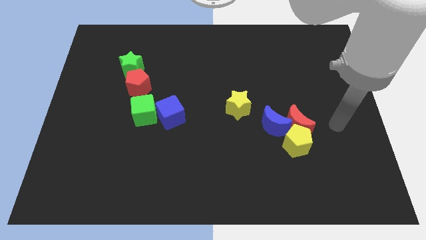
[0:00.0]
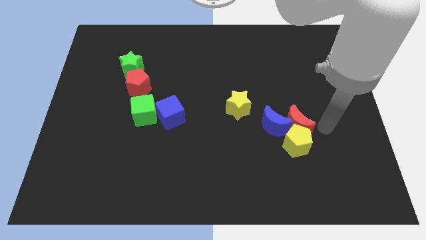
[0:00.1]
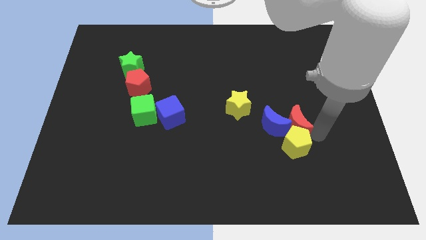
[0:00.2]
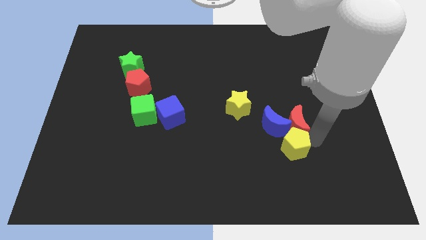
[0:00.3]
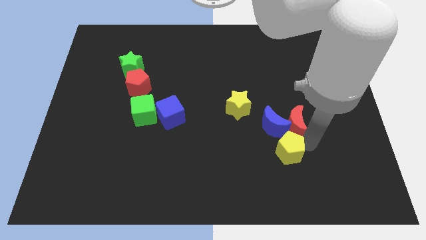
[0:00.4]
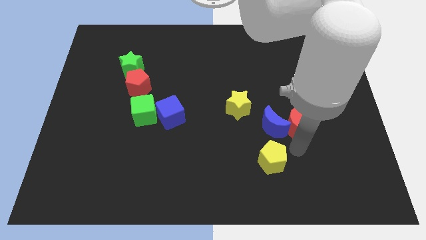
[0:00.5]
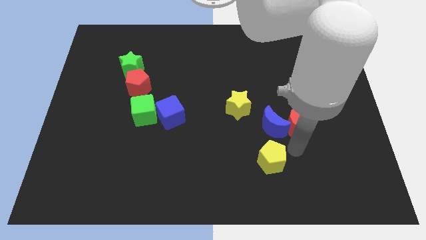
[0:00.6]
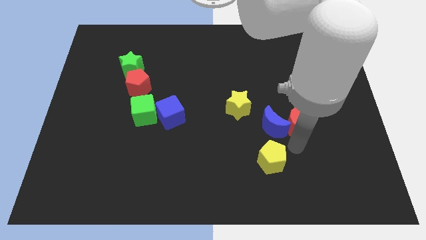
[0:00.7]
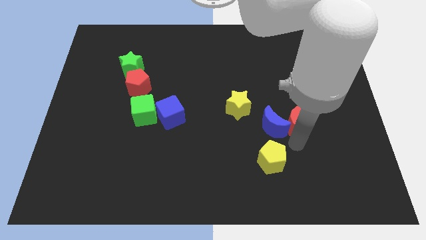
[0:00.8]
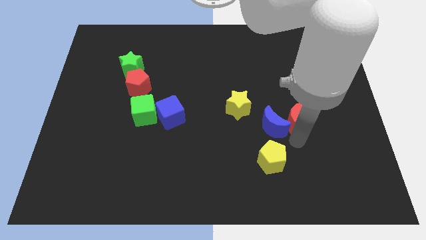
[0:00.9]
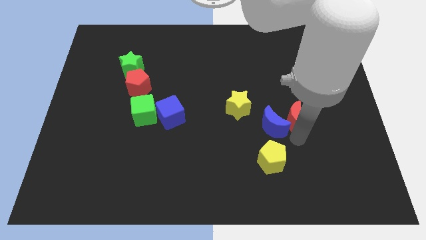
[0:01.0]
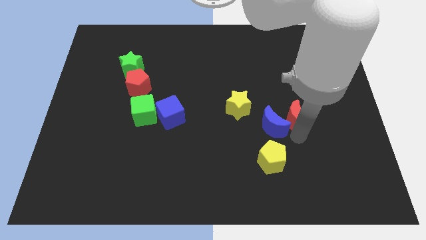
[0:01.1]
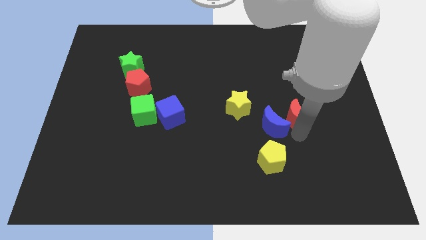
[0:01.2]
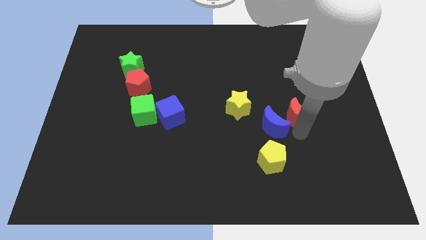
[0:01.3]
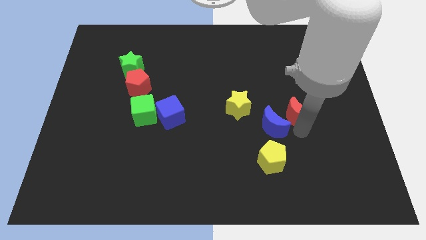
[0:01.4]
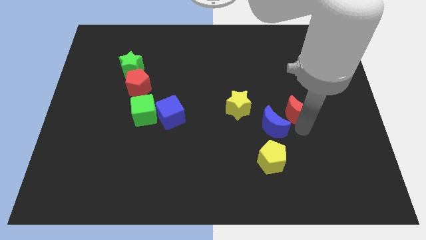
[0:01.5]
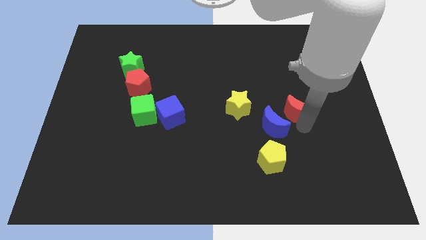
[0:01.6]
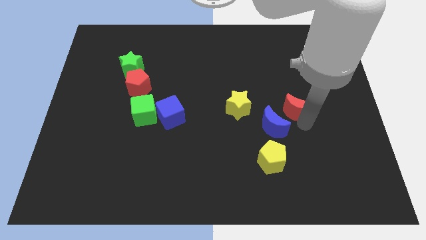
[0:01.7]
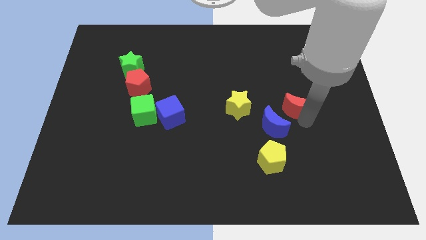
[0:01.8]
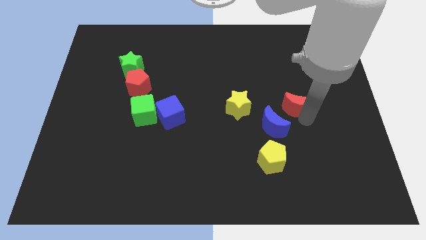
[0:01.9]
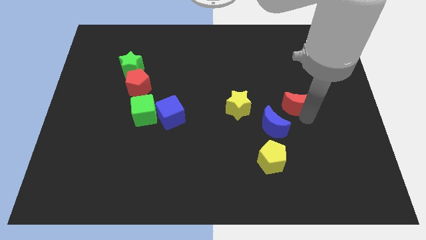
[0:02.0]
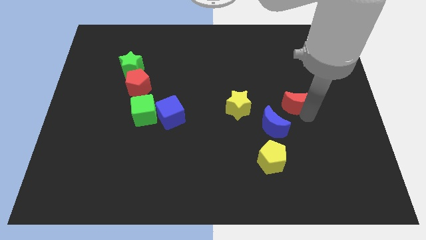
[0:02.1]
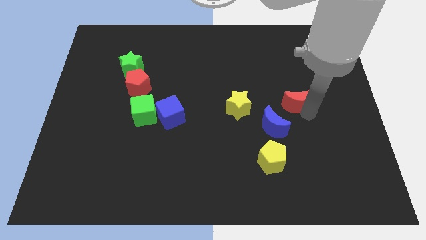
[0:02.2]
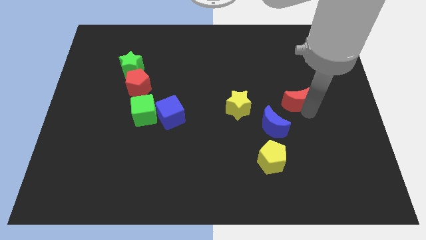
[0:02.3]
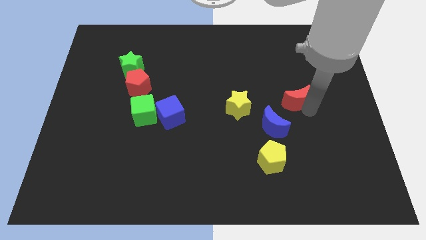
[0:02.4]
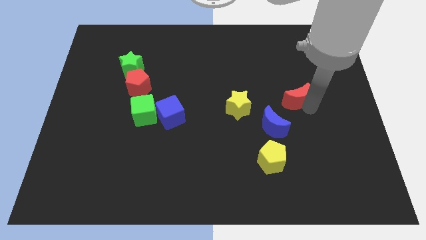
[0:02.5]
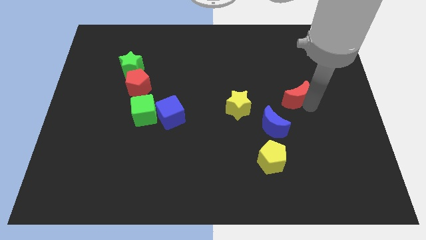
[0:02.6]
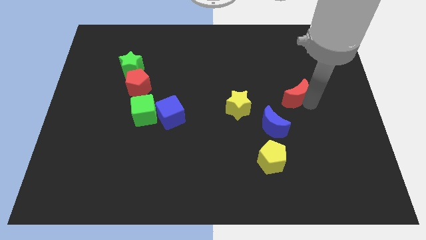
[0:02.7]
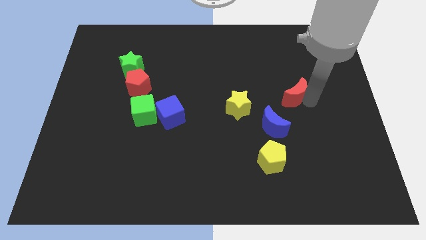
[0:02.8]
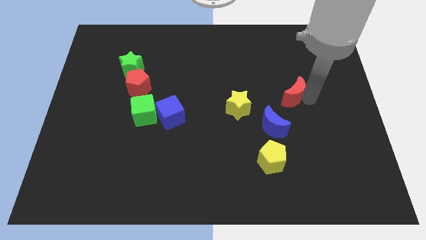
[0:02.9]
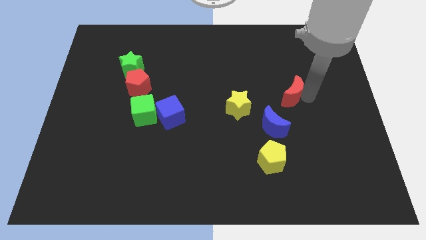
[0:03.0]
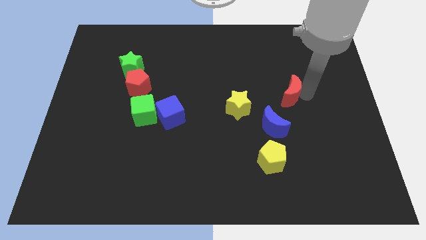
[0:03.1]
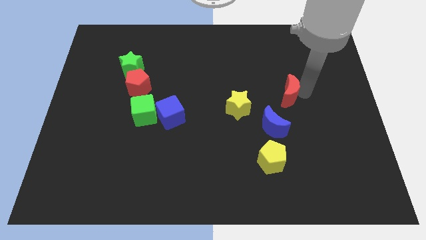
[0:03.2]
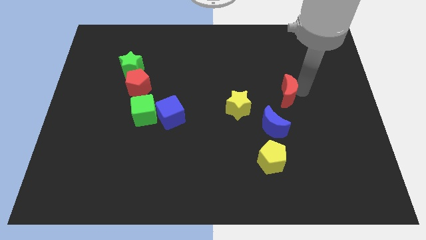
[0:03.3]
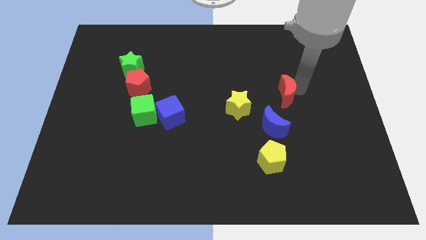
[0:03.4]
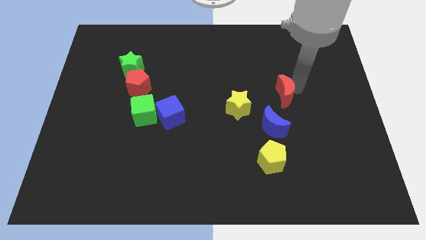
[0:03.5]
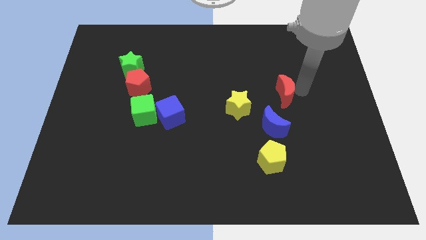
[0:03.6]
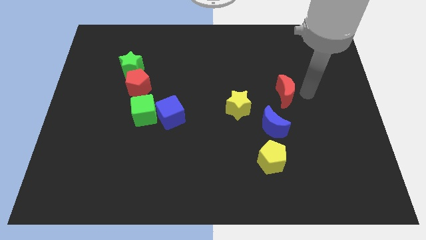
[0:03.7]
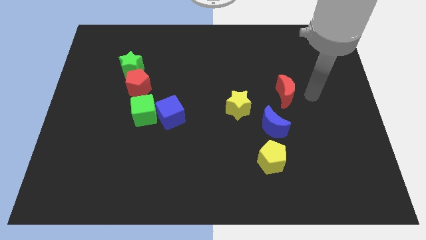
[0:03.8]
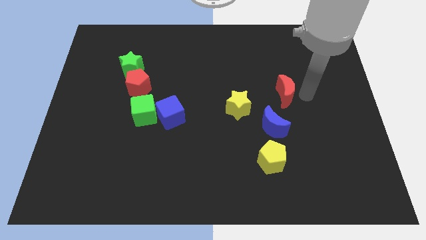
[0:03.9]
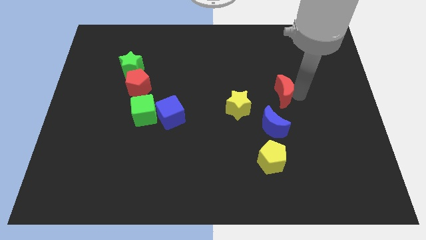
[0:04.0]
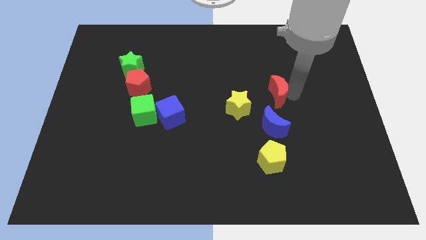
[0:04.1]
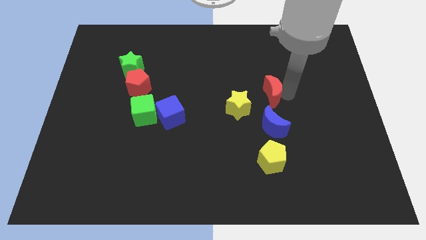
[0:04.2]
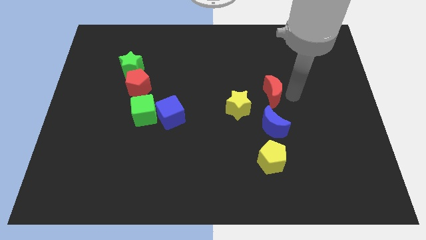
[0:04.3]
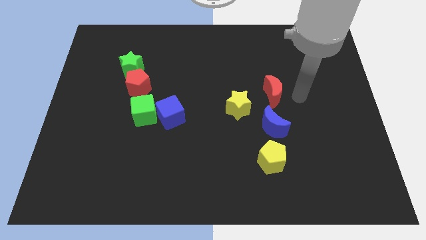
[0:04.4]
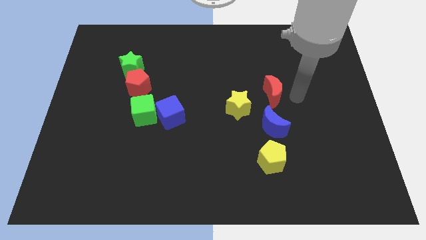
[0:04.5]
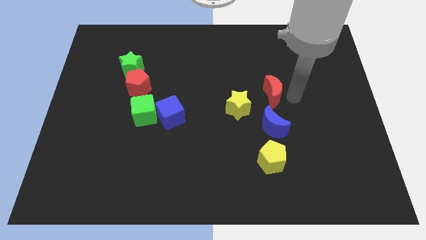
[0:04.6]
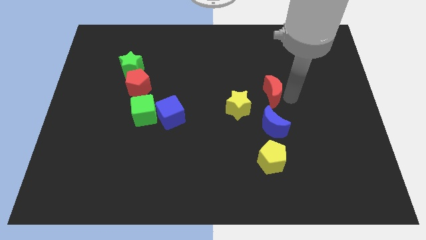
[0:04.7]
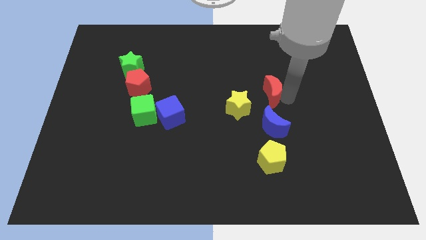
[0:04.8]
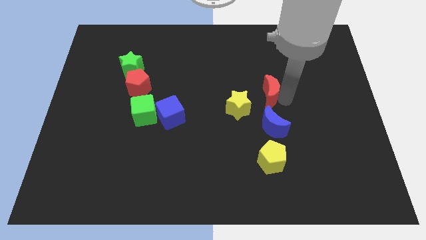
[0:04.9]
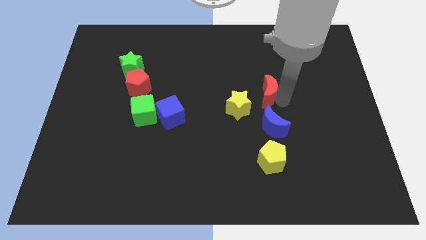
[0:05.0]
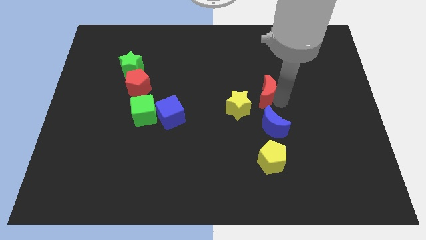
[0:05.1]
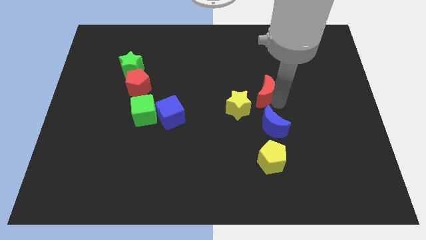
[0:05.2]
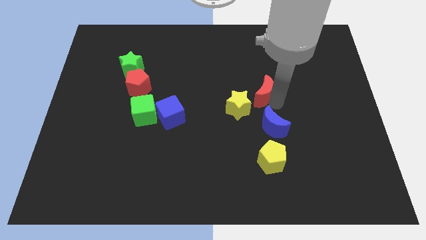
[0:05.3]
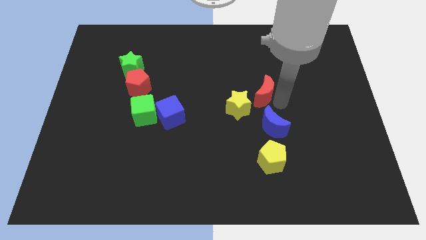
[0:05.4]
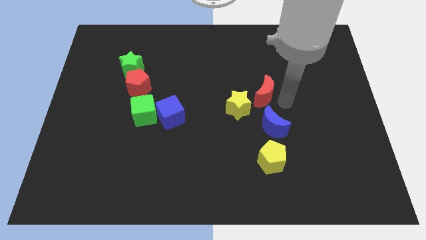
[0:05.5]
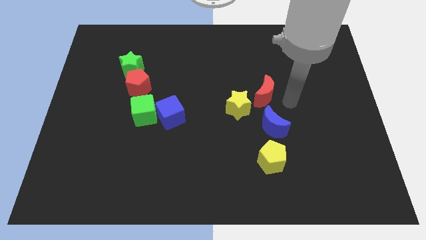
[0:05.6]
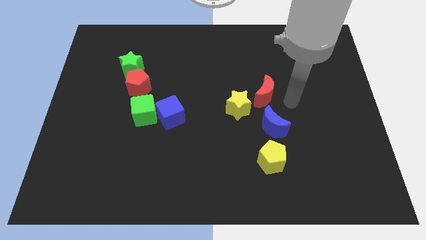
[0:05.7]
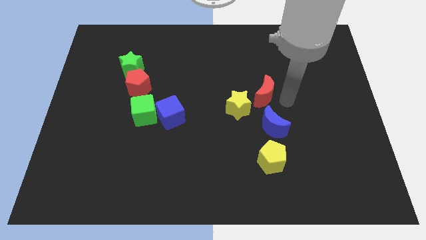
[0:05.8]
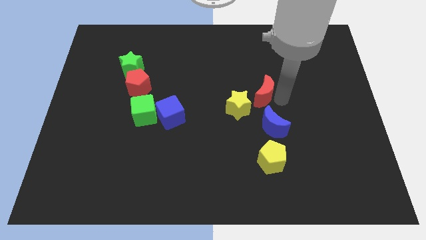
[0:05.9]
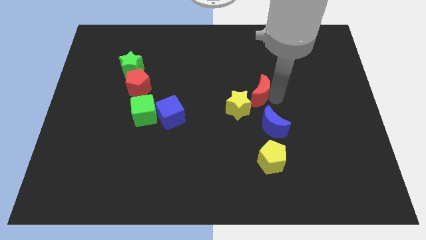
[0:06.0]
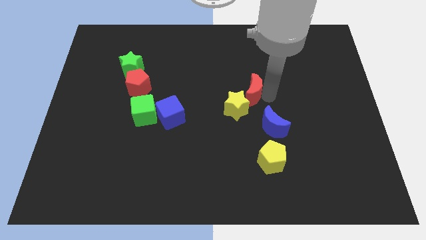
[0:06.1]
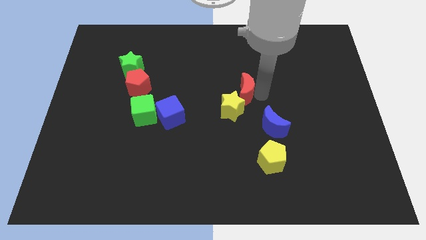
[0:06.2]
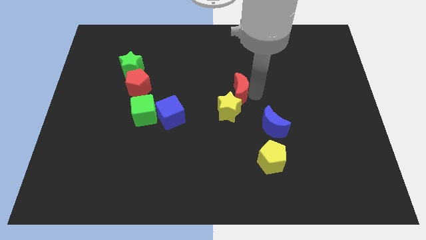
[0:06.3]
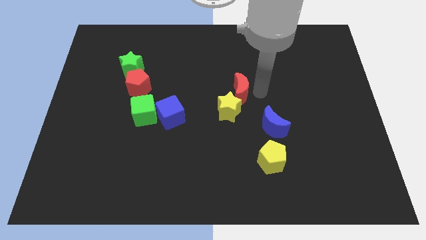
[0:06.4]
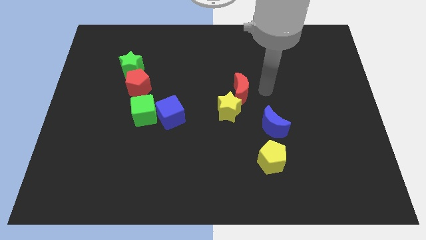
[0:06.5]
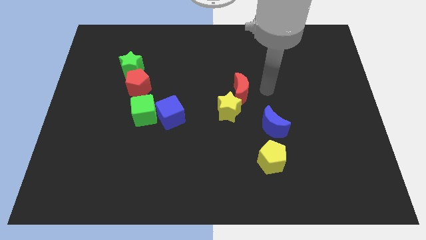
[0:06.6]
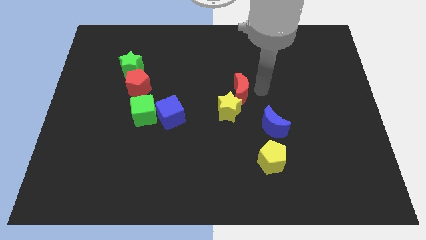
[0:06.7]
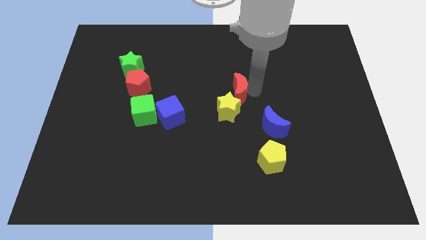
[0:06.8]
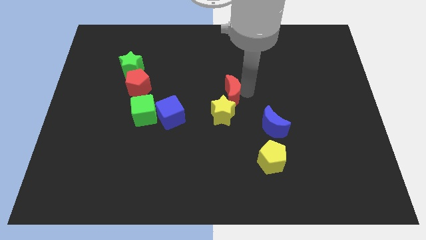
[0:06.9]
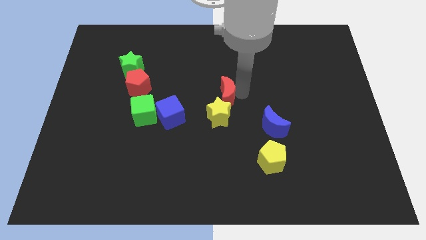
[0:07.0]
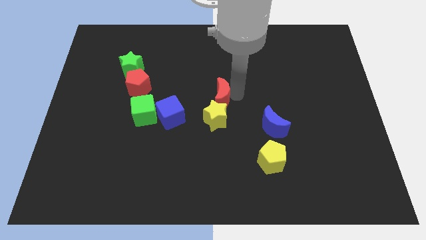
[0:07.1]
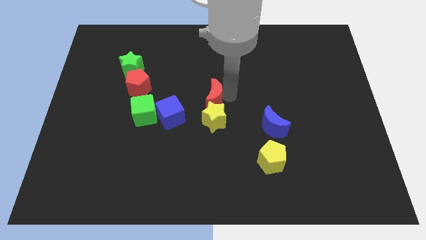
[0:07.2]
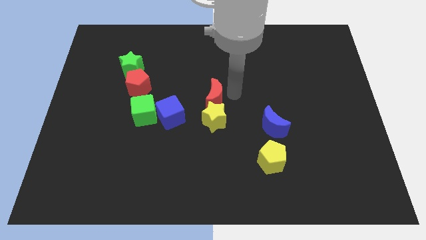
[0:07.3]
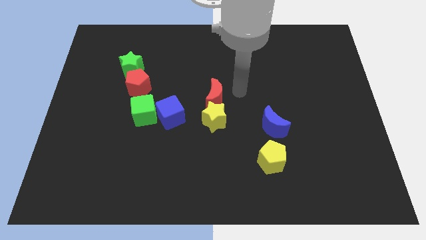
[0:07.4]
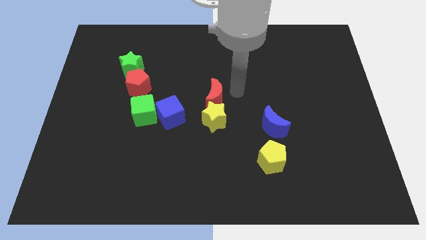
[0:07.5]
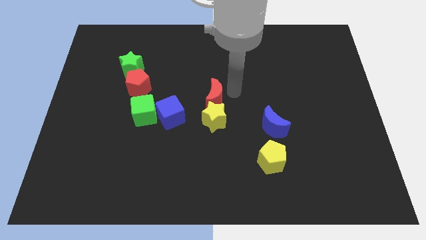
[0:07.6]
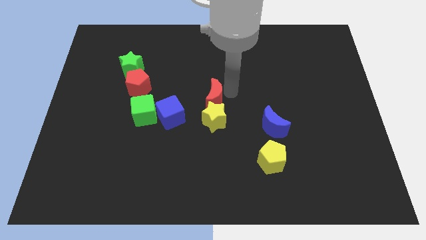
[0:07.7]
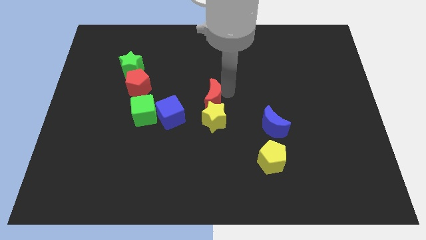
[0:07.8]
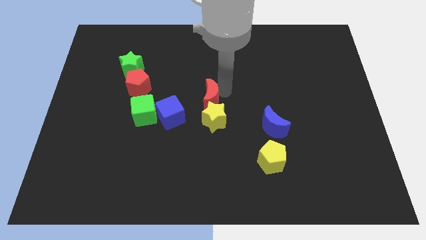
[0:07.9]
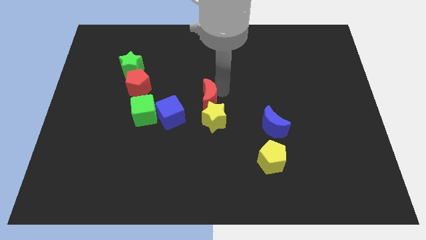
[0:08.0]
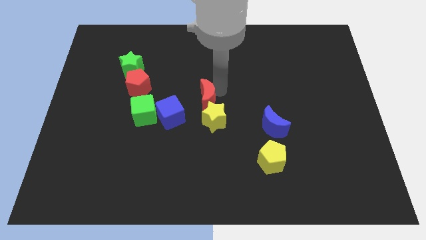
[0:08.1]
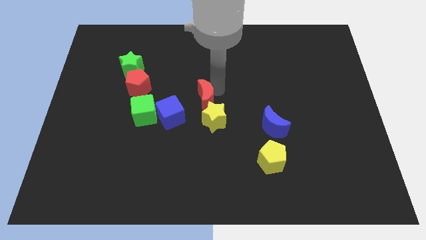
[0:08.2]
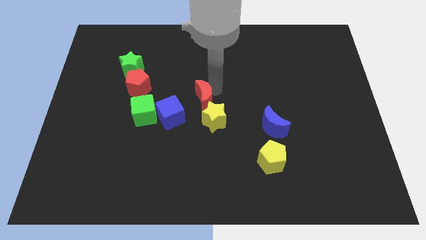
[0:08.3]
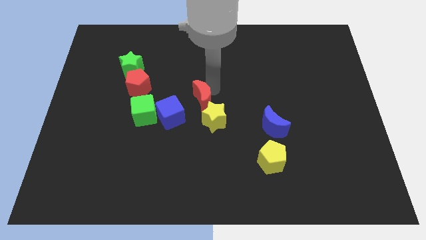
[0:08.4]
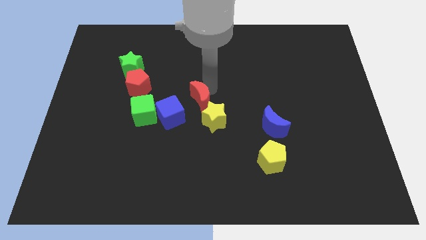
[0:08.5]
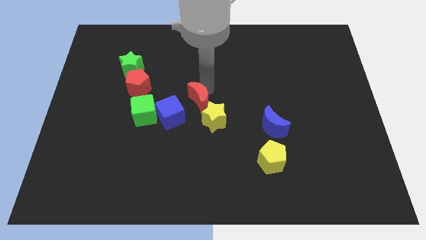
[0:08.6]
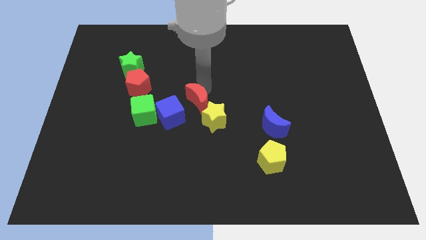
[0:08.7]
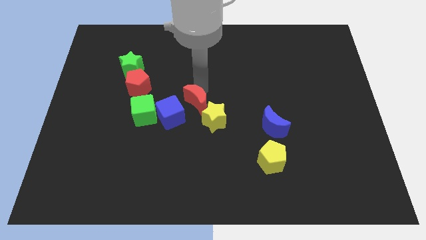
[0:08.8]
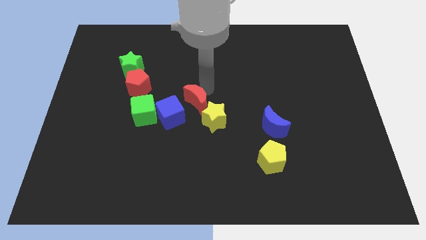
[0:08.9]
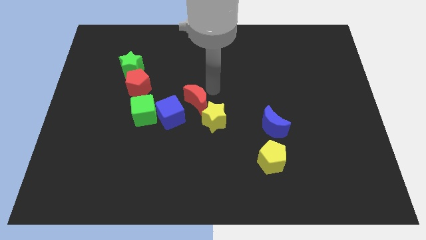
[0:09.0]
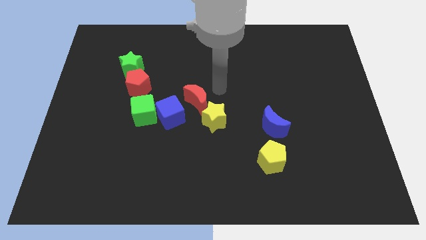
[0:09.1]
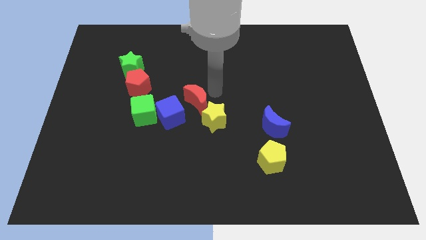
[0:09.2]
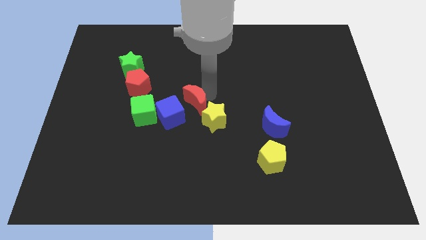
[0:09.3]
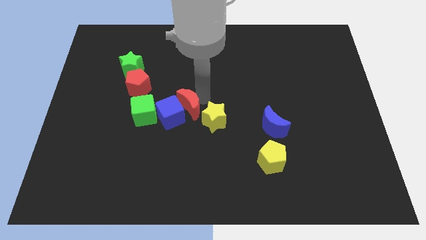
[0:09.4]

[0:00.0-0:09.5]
put the red moon to the blue cube
